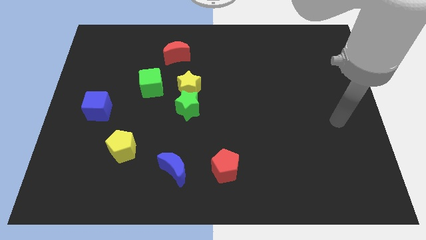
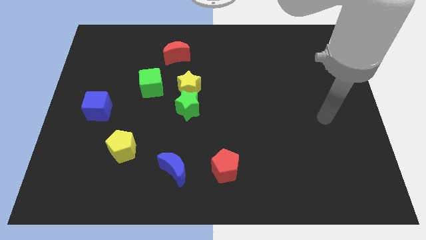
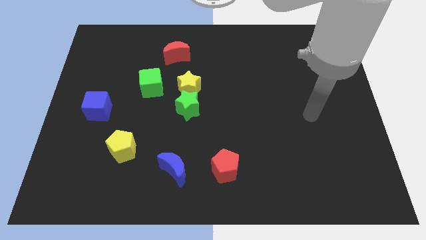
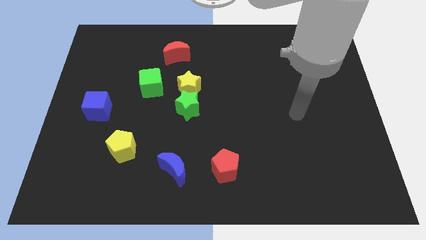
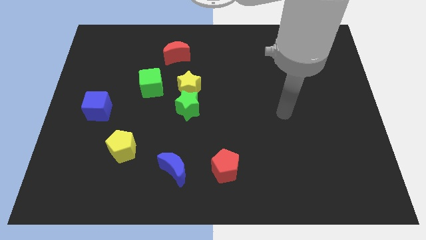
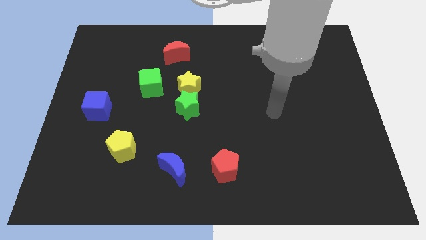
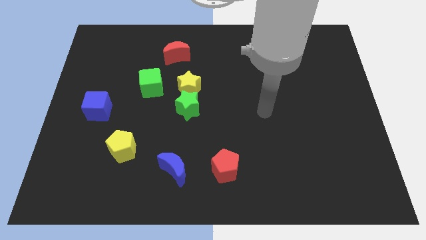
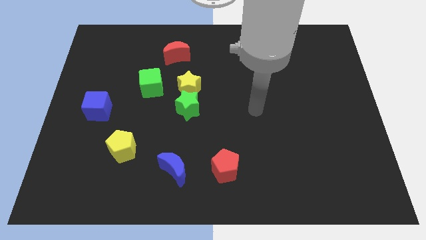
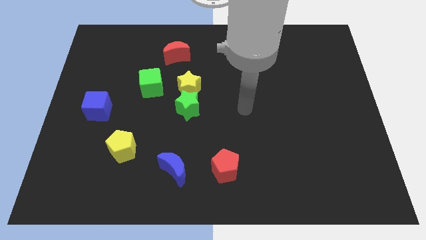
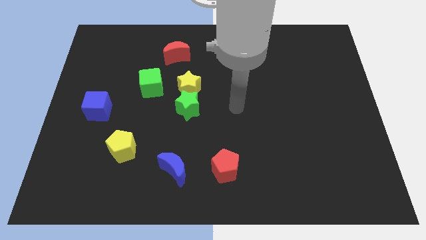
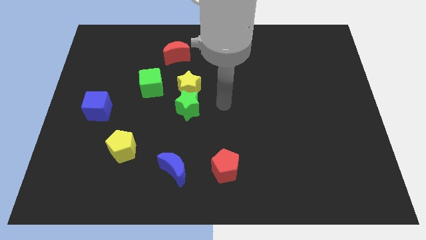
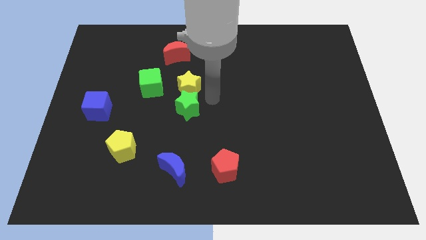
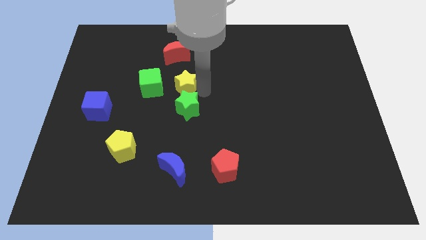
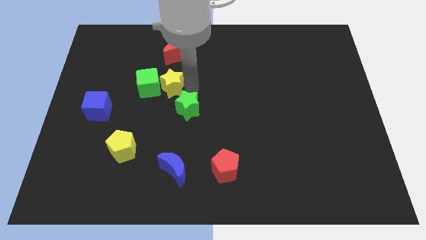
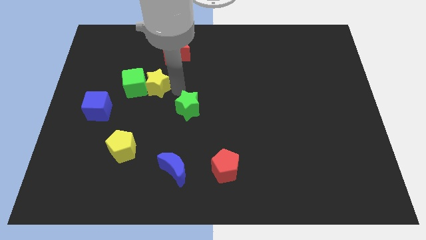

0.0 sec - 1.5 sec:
move the green star away from the yellow star

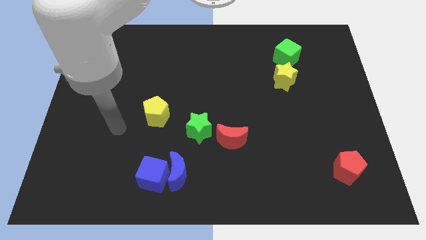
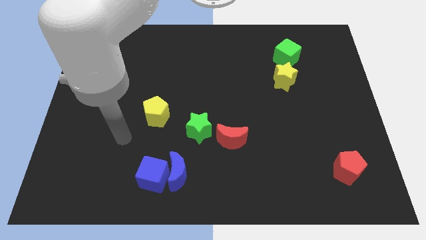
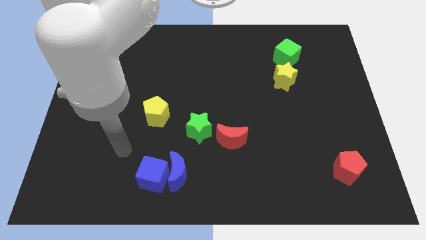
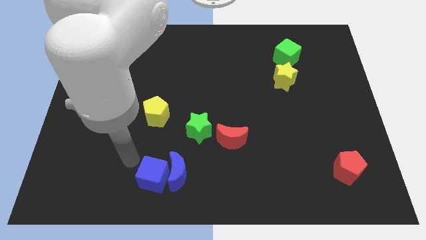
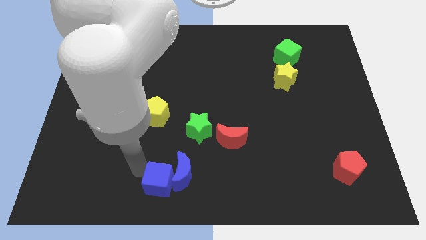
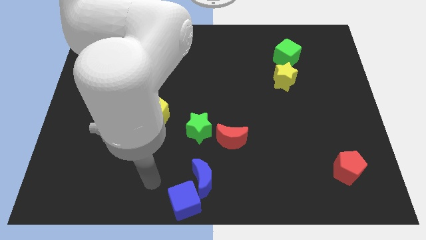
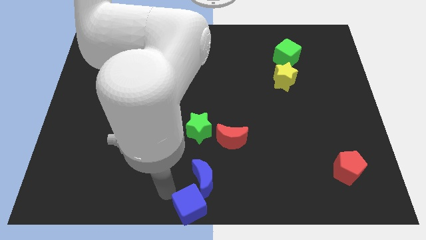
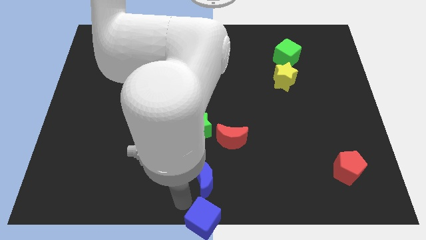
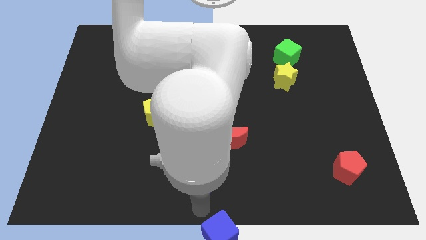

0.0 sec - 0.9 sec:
separate the blue moon from the blue cube

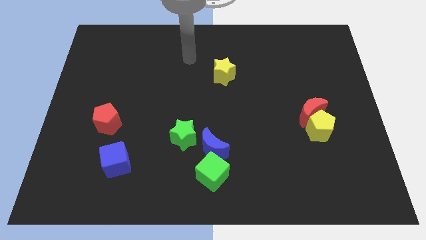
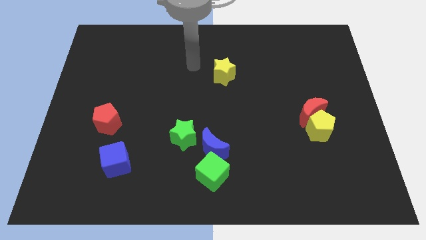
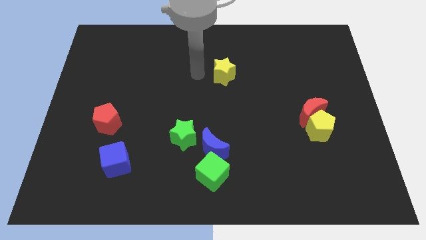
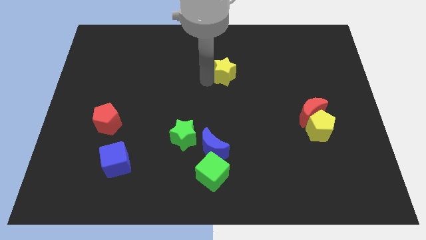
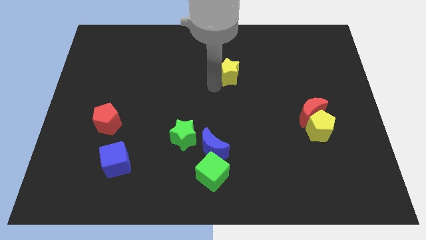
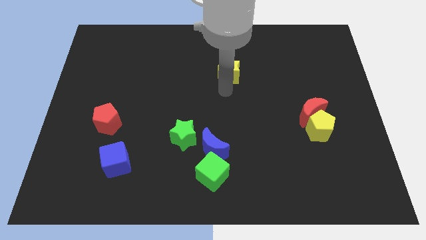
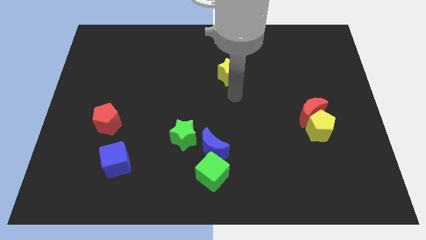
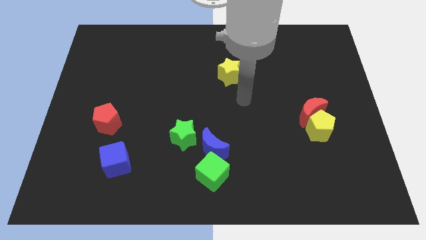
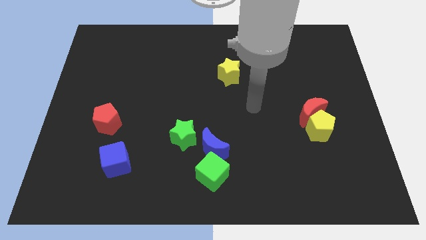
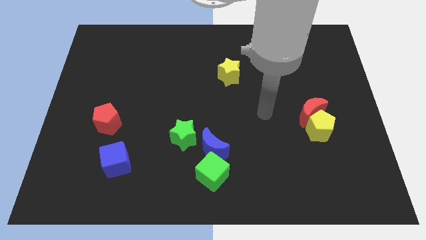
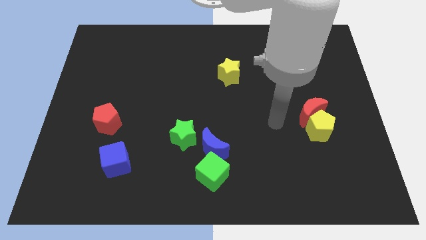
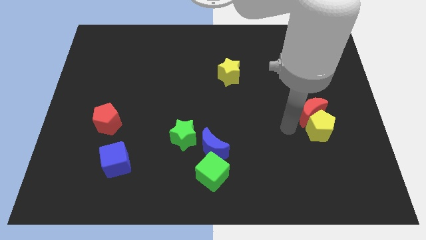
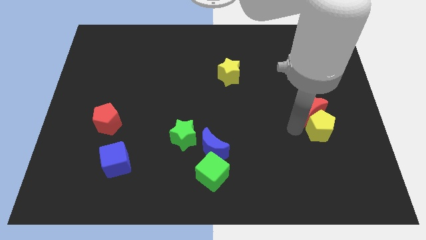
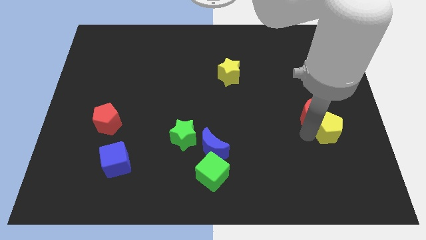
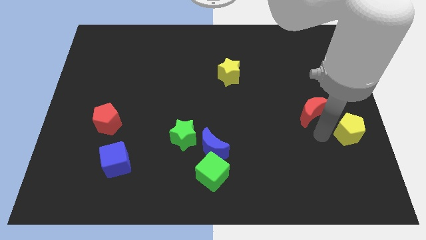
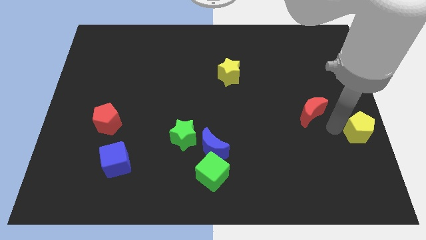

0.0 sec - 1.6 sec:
pull the red moon apart from the yellow pentagon

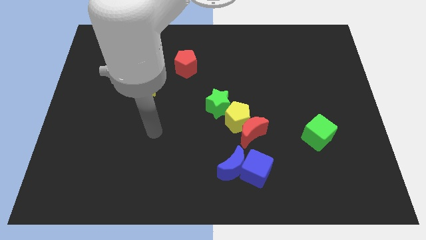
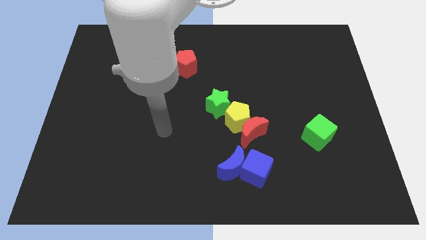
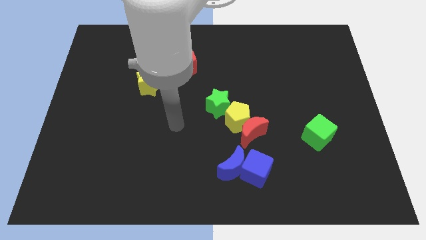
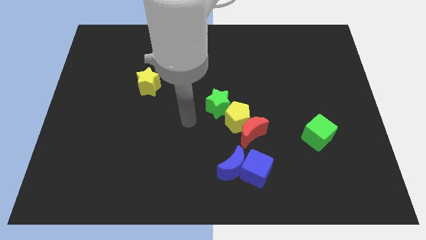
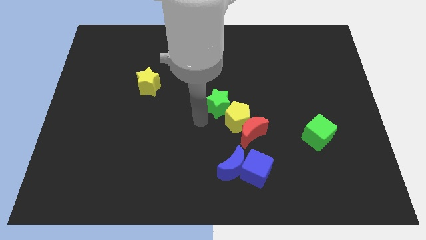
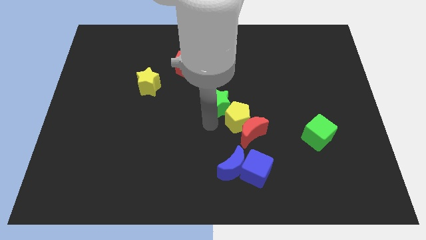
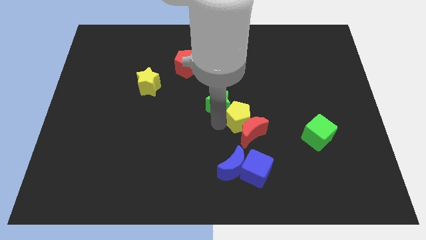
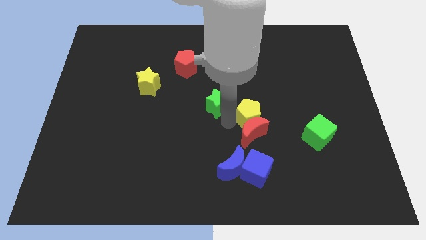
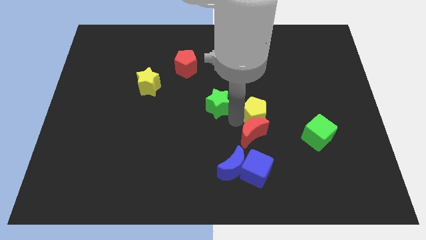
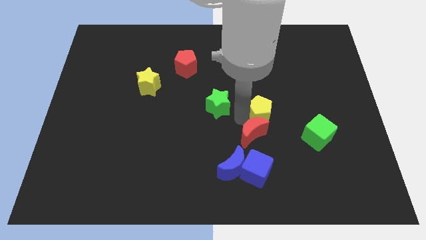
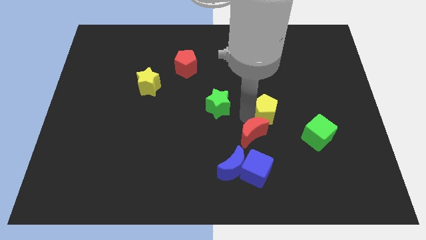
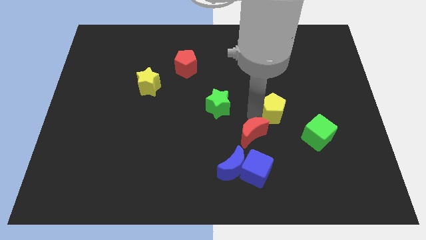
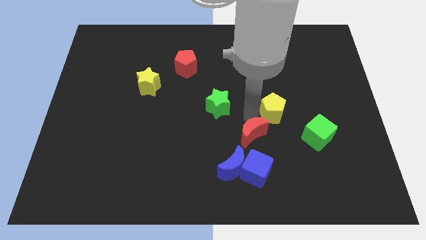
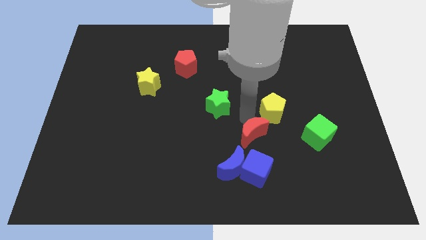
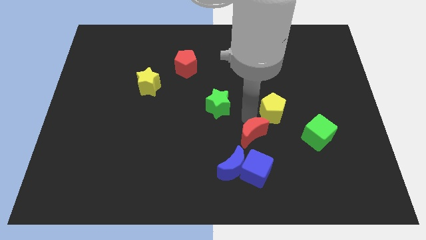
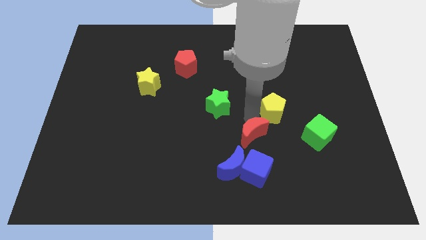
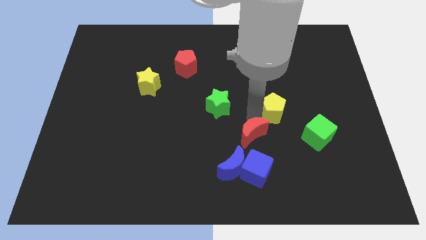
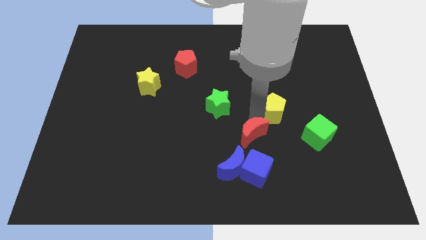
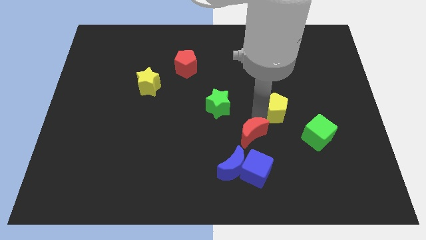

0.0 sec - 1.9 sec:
move the yellow pentagon away from the red moon and green star

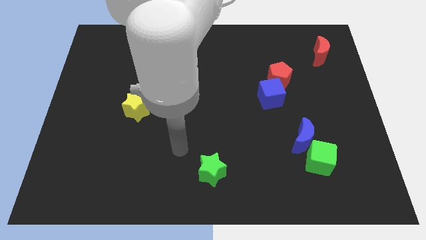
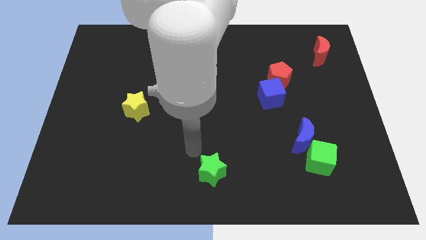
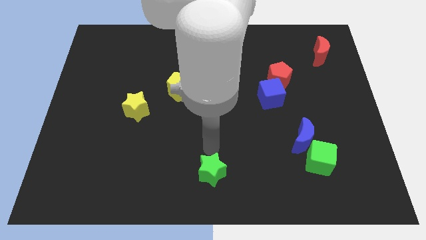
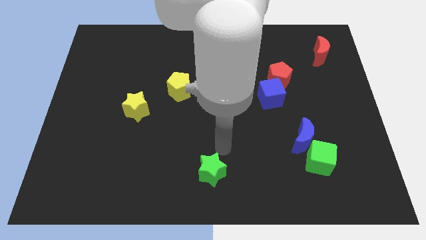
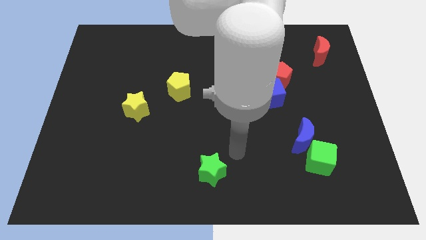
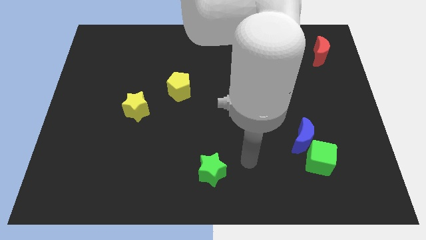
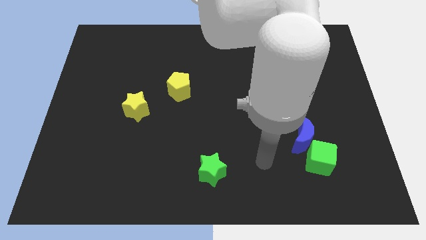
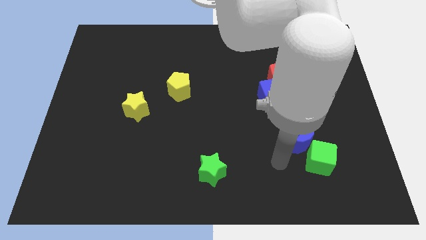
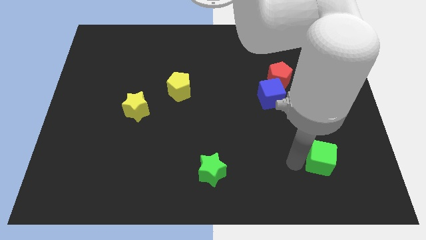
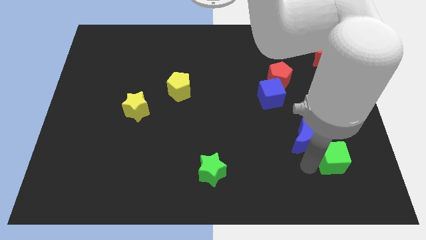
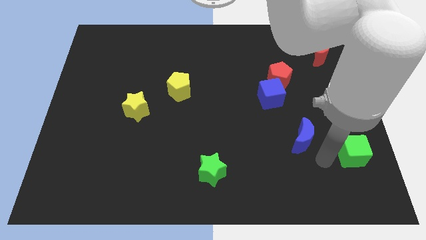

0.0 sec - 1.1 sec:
separate the blue moon from the green cube

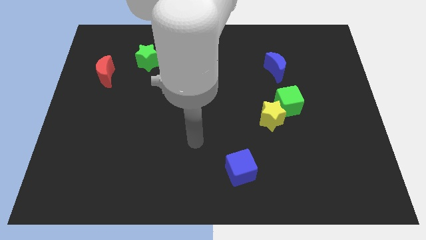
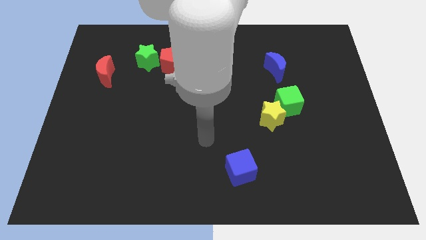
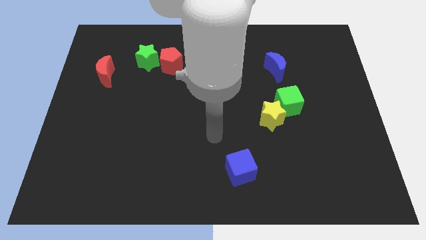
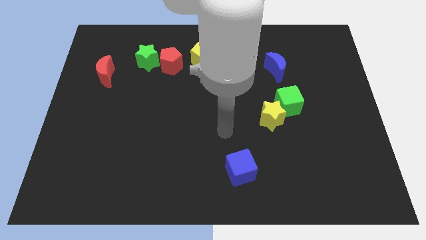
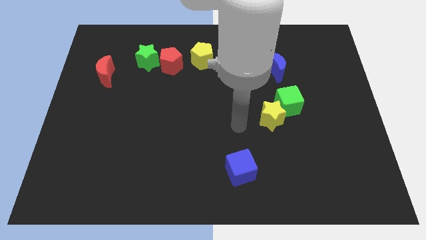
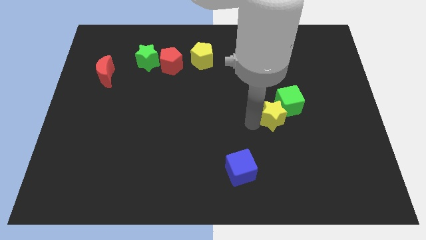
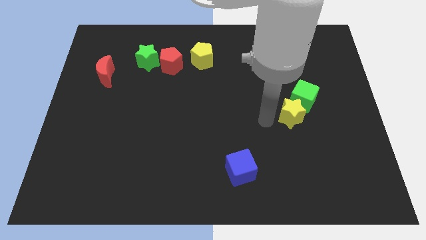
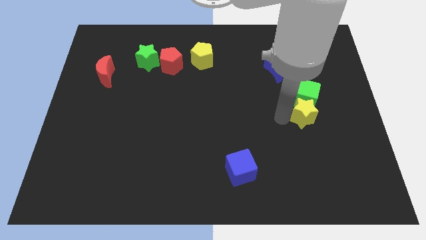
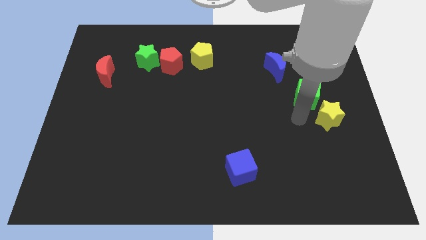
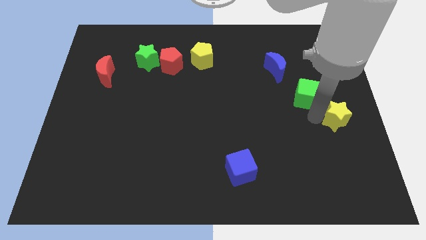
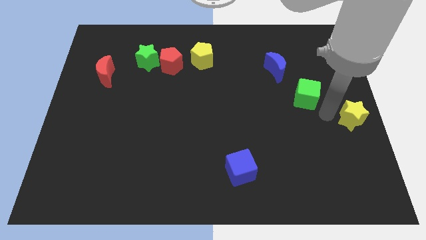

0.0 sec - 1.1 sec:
move the green cube away from the yellow star

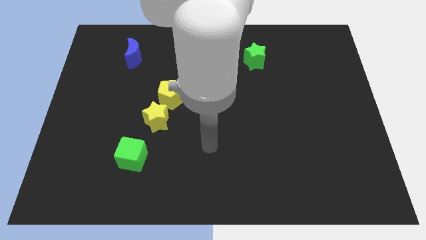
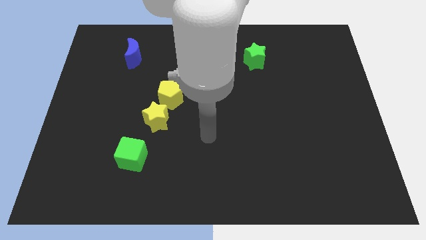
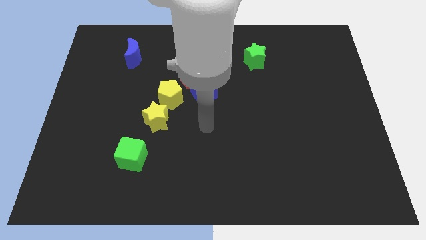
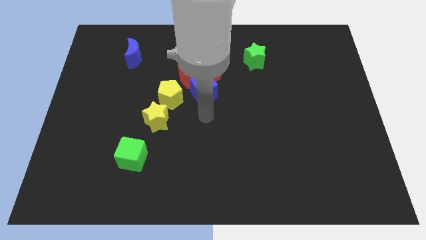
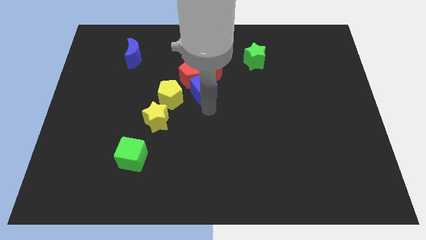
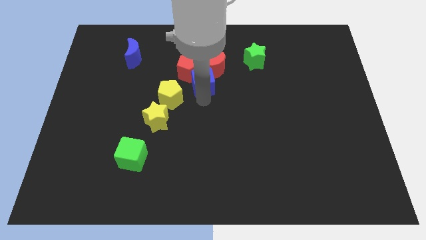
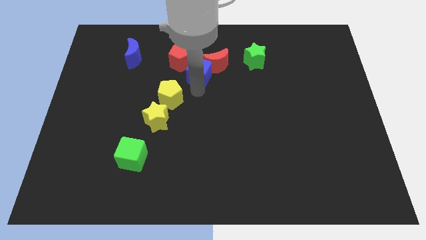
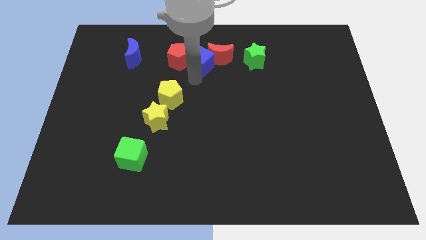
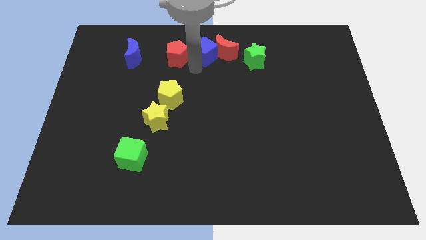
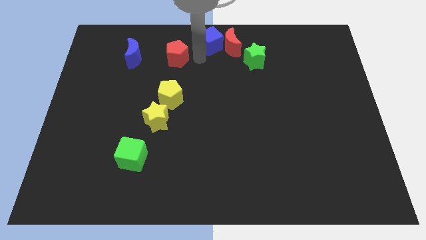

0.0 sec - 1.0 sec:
move the red moon away from the red pentagon and blue cube

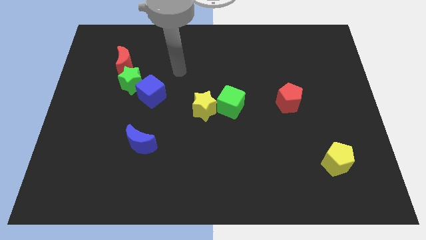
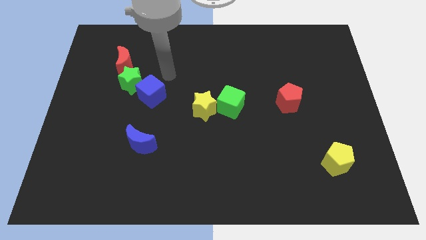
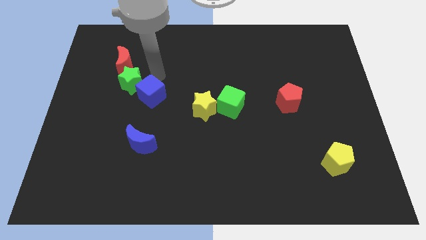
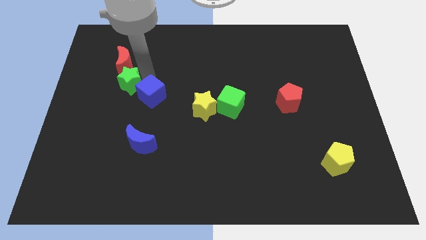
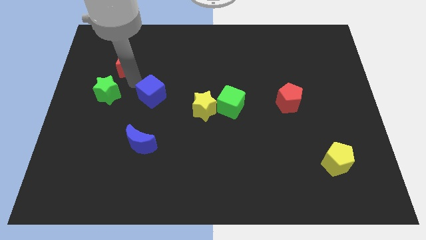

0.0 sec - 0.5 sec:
separate the blue cube from the green star
